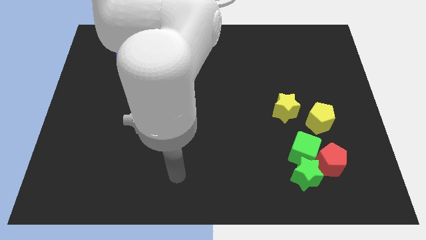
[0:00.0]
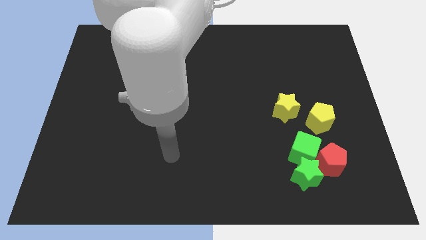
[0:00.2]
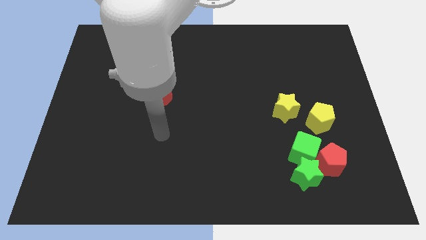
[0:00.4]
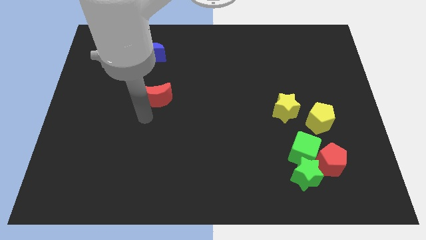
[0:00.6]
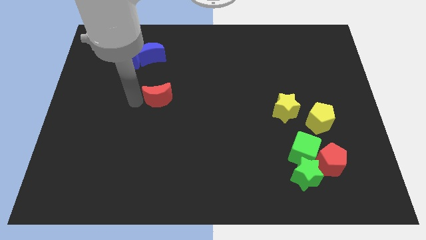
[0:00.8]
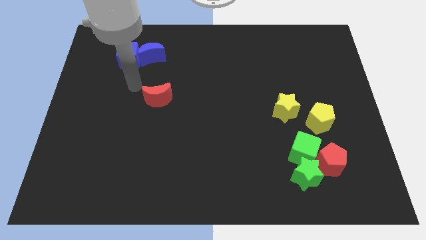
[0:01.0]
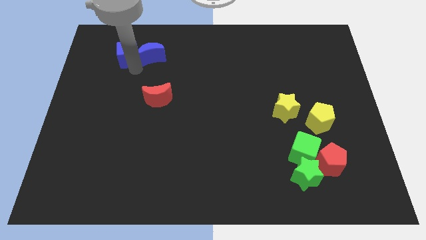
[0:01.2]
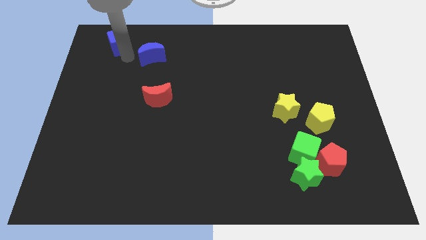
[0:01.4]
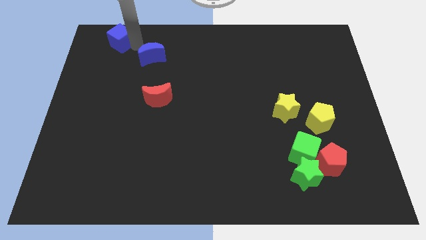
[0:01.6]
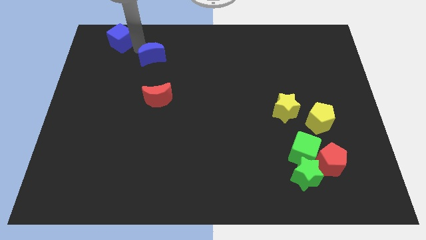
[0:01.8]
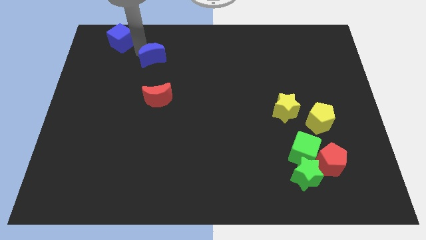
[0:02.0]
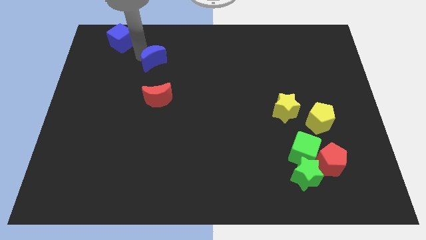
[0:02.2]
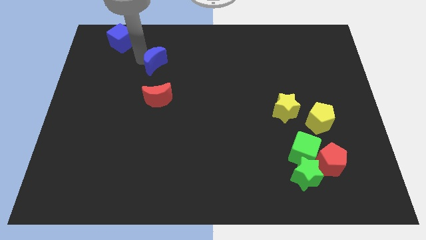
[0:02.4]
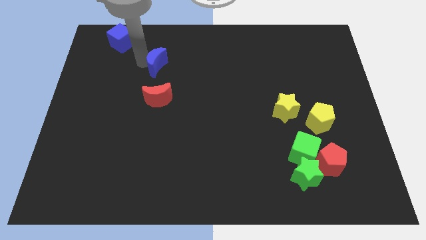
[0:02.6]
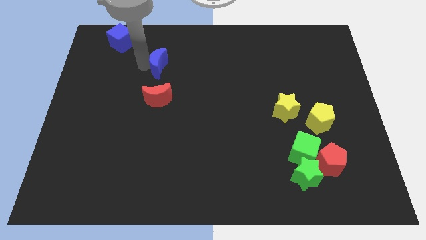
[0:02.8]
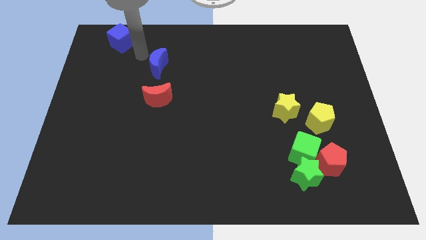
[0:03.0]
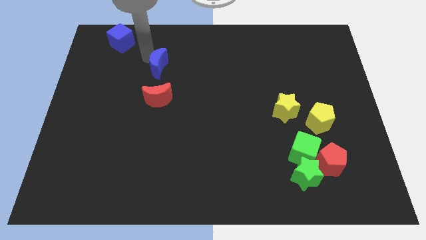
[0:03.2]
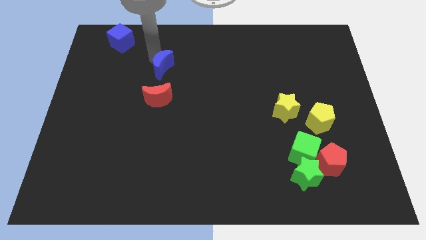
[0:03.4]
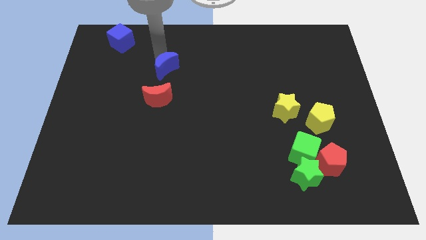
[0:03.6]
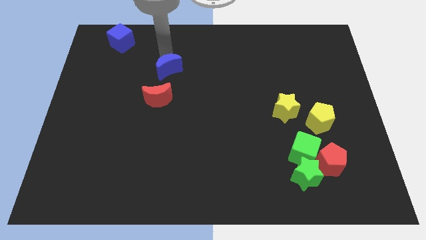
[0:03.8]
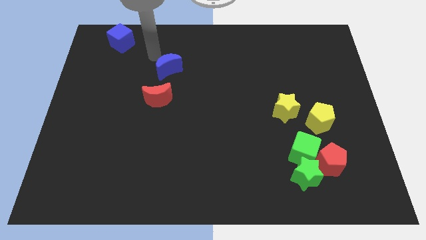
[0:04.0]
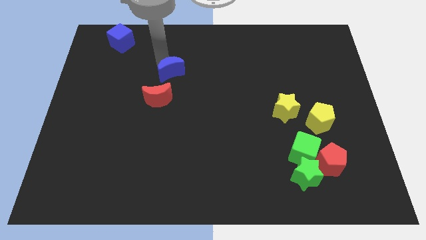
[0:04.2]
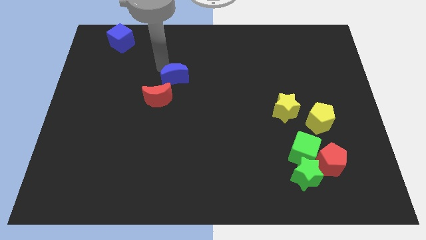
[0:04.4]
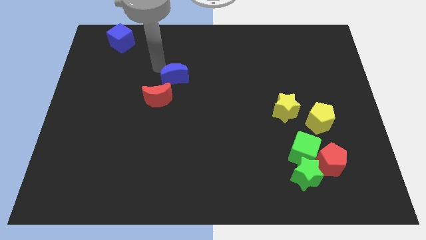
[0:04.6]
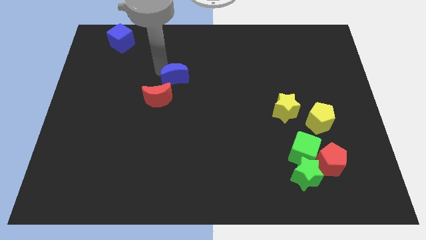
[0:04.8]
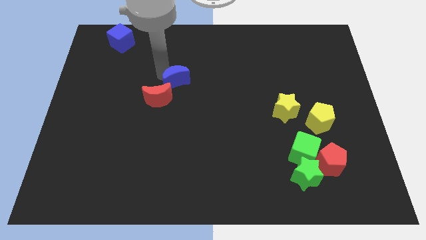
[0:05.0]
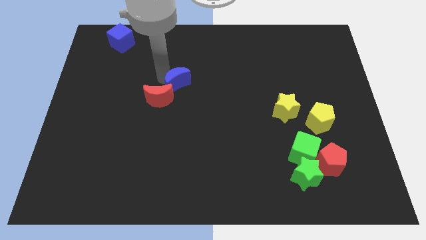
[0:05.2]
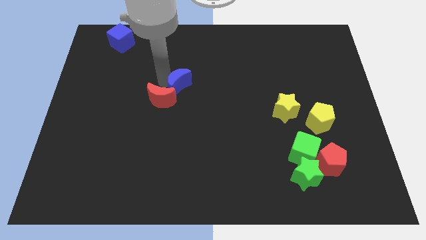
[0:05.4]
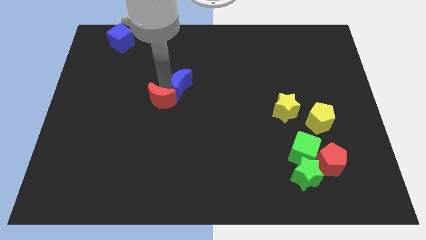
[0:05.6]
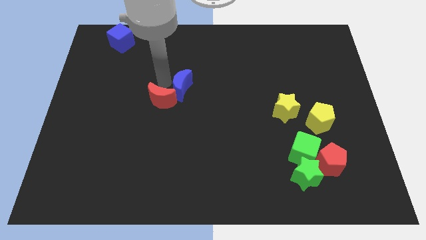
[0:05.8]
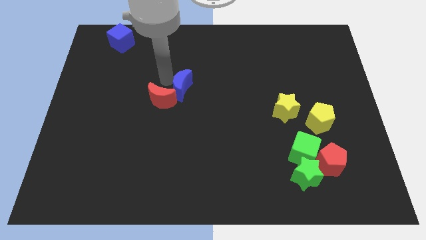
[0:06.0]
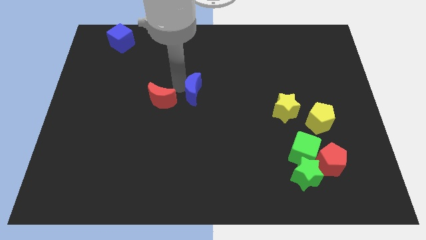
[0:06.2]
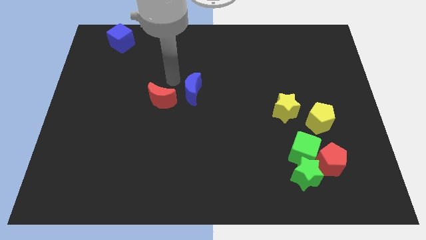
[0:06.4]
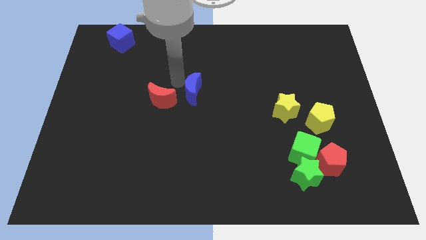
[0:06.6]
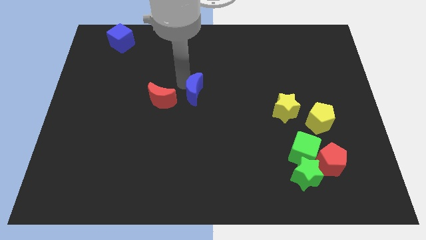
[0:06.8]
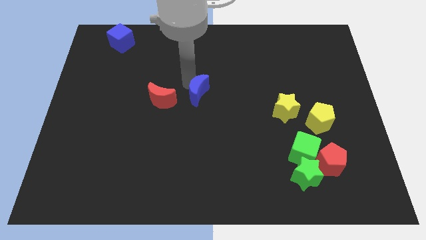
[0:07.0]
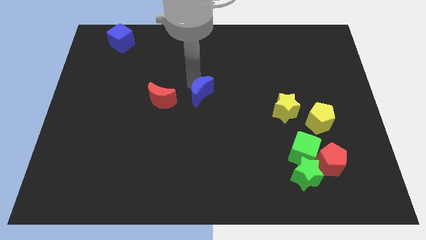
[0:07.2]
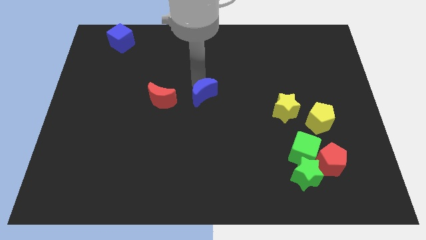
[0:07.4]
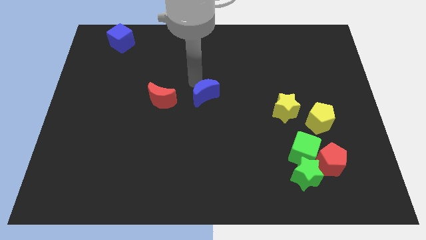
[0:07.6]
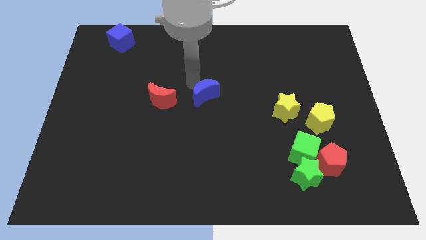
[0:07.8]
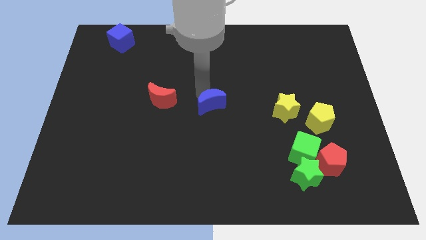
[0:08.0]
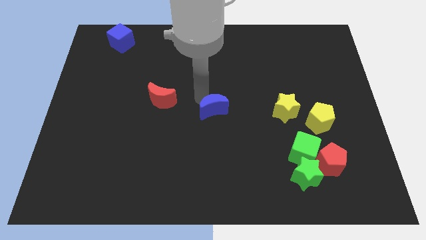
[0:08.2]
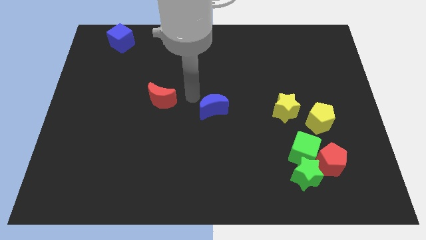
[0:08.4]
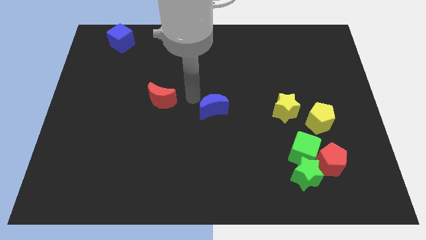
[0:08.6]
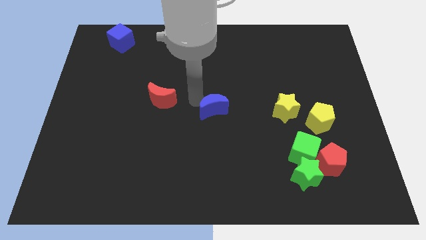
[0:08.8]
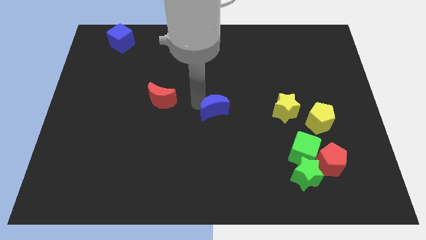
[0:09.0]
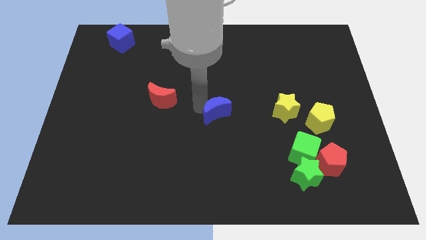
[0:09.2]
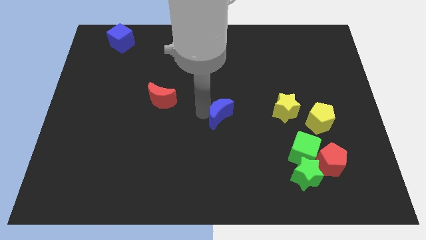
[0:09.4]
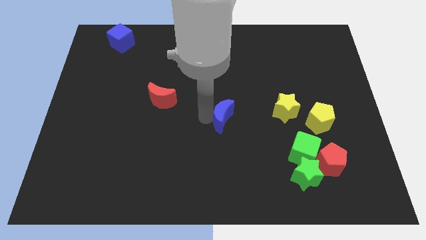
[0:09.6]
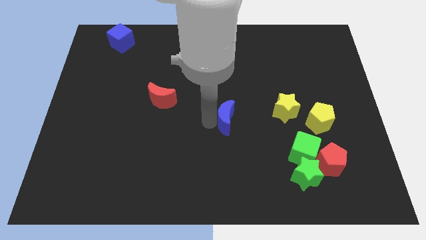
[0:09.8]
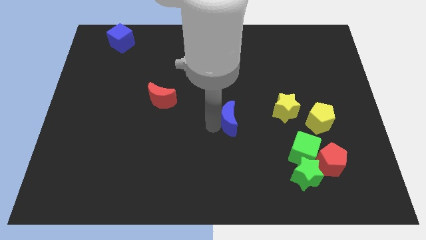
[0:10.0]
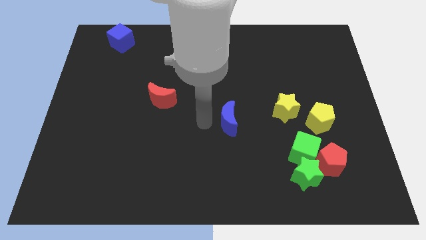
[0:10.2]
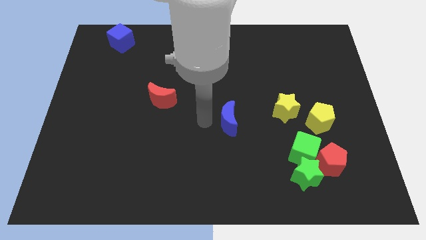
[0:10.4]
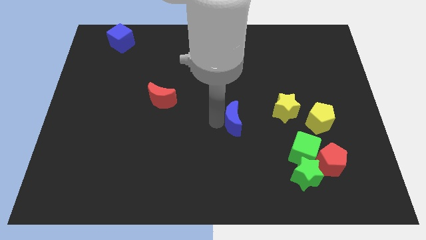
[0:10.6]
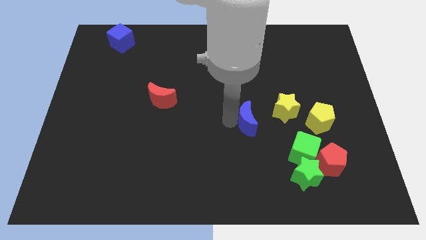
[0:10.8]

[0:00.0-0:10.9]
put the blue moon diagonally down and to the left of the yellow star

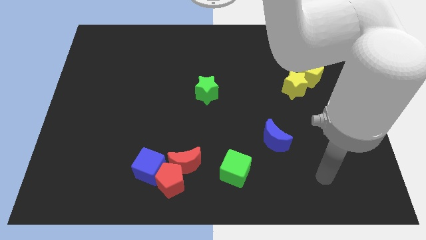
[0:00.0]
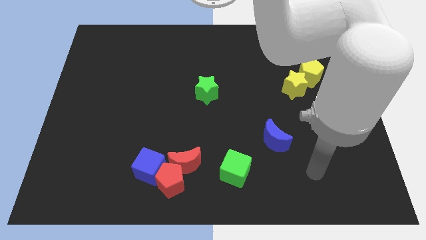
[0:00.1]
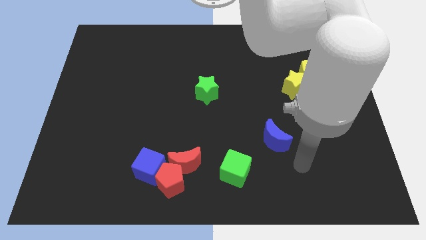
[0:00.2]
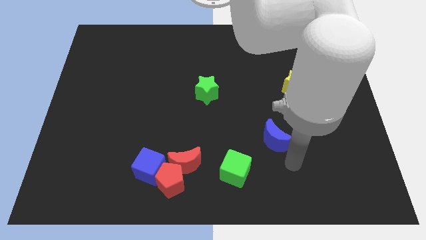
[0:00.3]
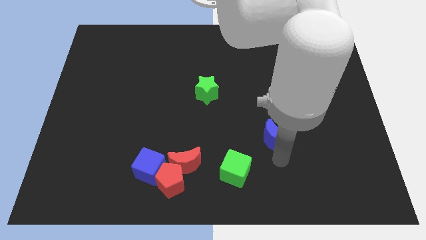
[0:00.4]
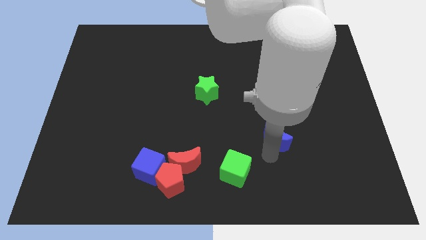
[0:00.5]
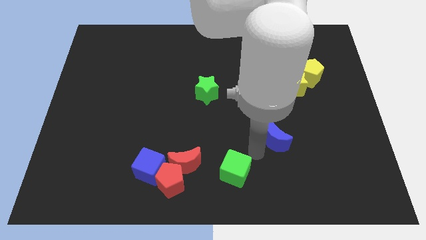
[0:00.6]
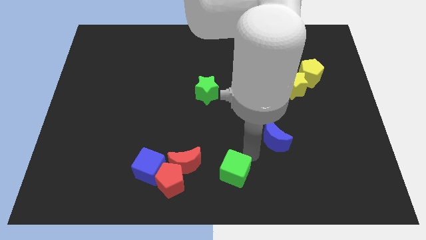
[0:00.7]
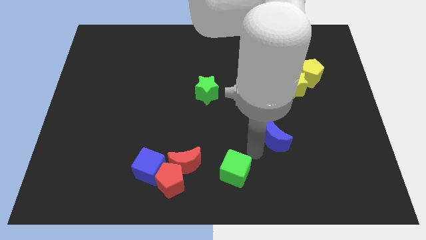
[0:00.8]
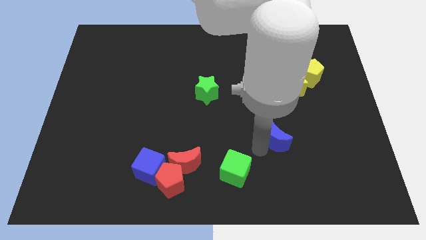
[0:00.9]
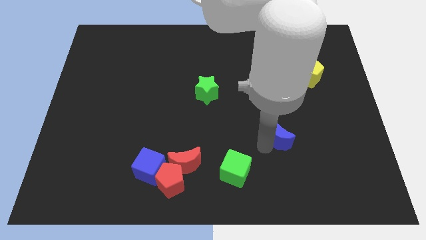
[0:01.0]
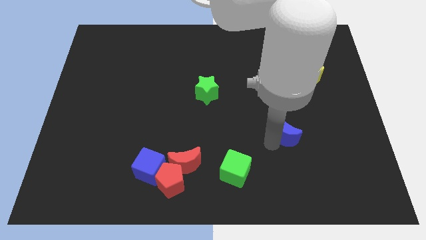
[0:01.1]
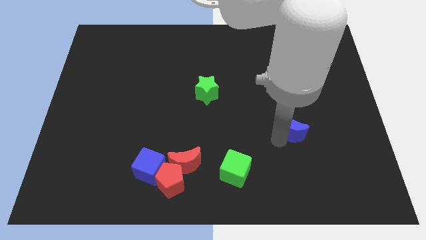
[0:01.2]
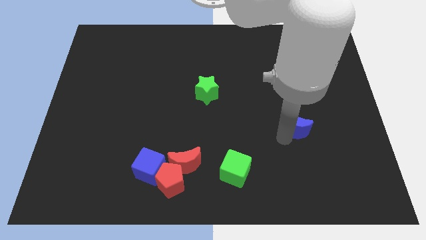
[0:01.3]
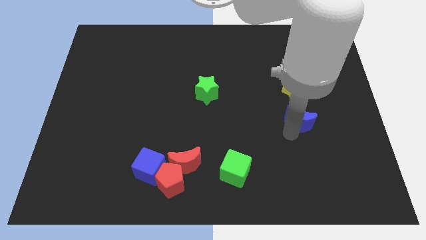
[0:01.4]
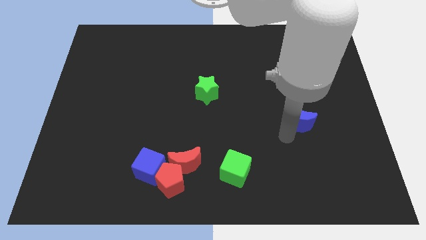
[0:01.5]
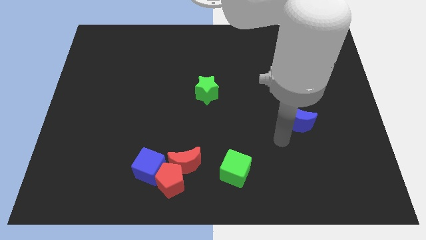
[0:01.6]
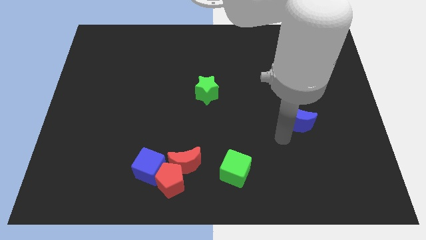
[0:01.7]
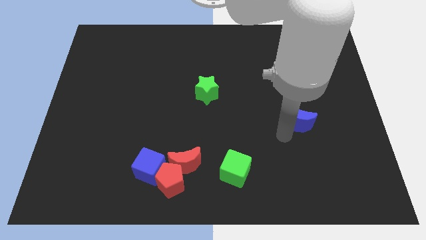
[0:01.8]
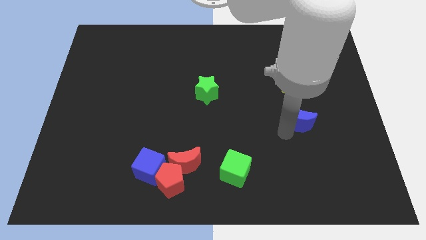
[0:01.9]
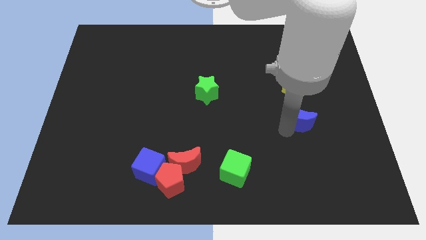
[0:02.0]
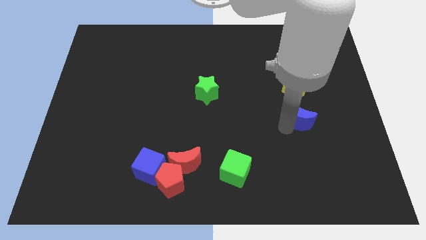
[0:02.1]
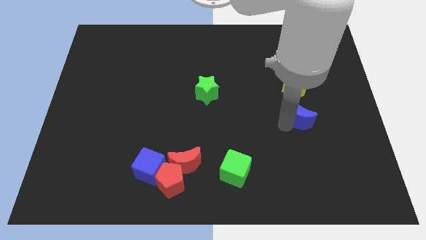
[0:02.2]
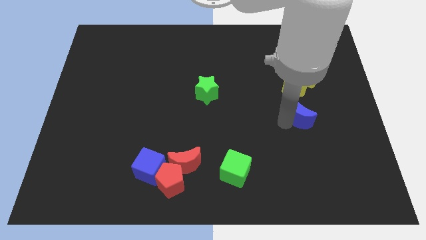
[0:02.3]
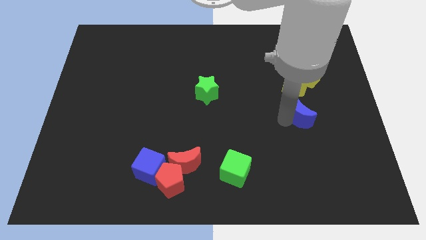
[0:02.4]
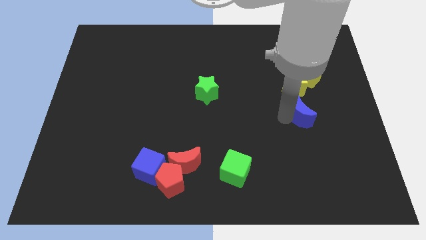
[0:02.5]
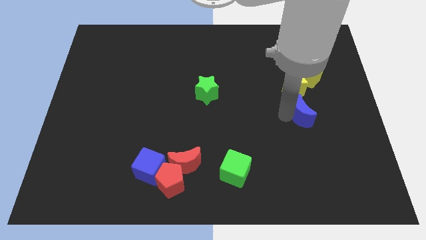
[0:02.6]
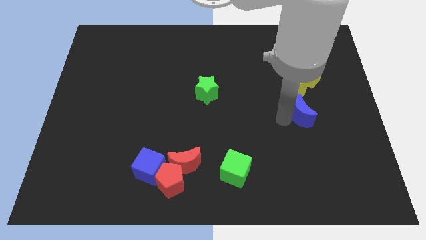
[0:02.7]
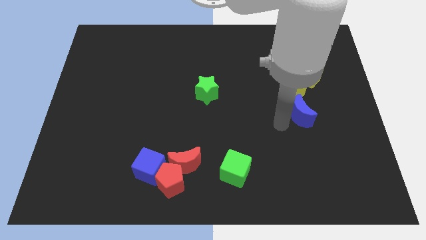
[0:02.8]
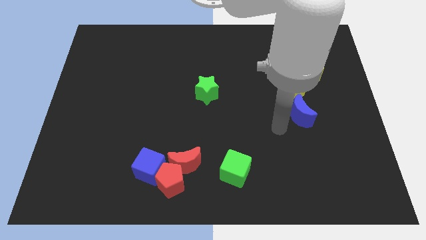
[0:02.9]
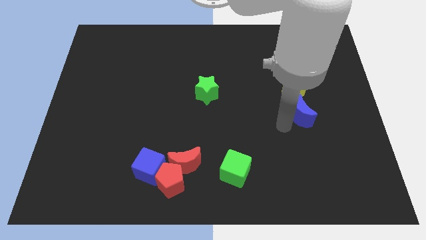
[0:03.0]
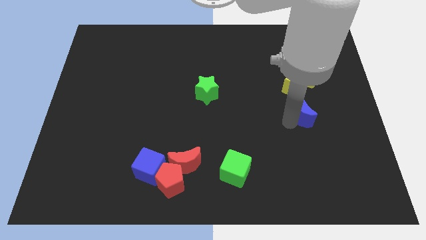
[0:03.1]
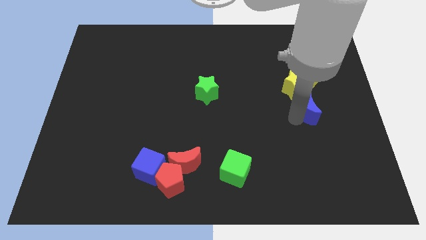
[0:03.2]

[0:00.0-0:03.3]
push the blue moon to the bottom right of the yellow star
